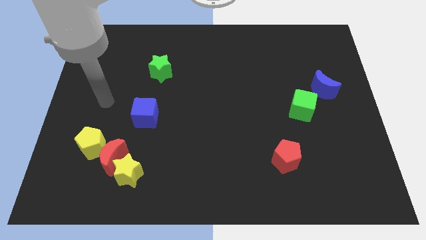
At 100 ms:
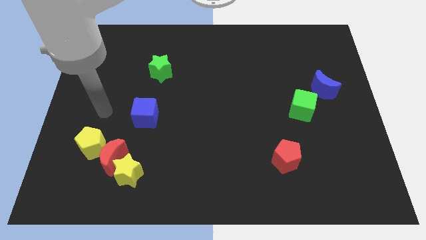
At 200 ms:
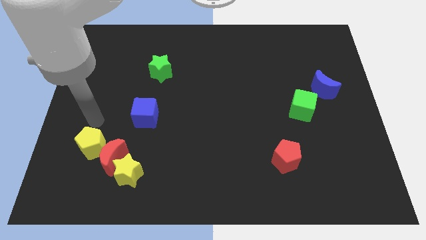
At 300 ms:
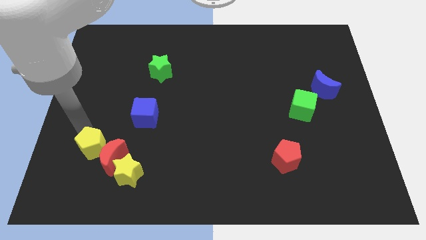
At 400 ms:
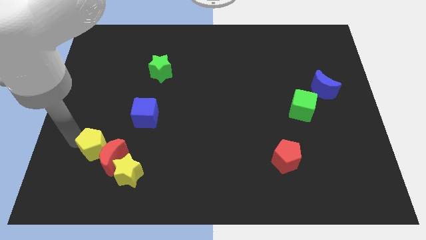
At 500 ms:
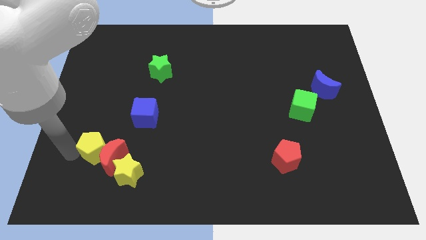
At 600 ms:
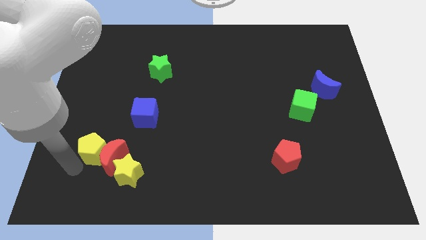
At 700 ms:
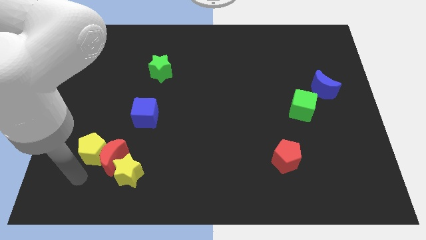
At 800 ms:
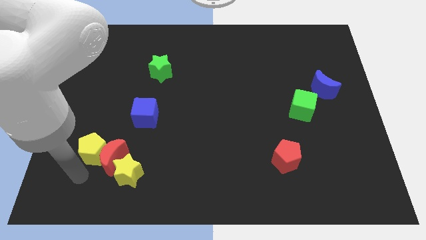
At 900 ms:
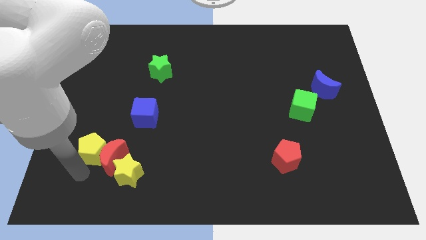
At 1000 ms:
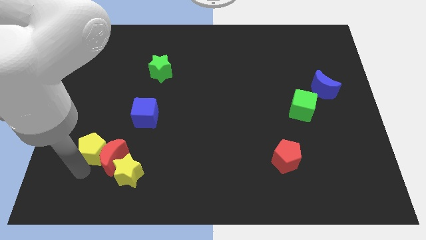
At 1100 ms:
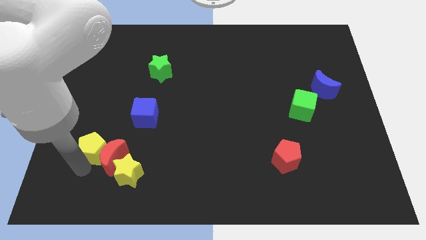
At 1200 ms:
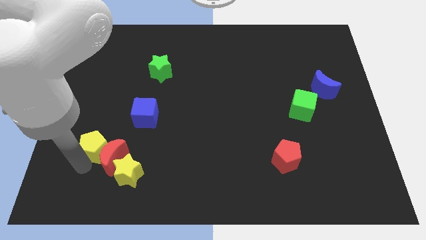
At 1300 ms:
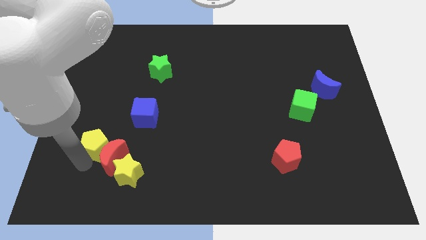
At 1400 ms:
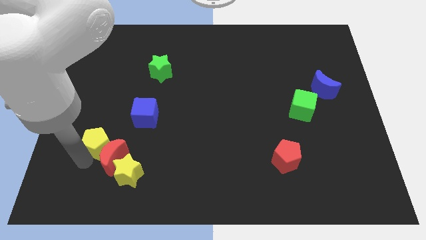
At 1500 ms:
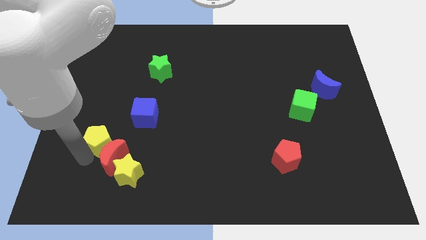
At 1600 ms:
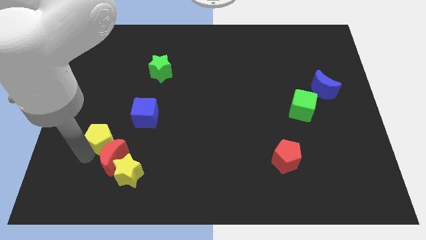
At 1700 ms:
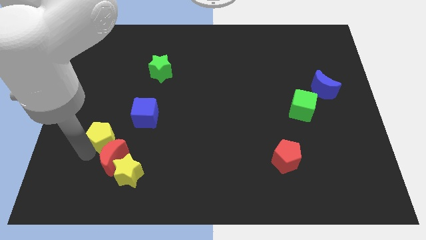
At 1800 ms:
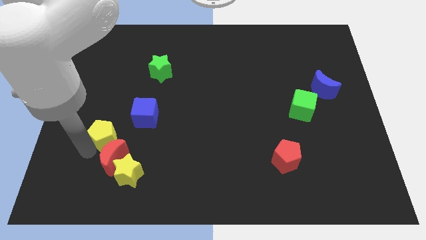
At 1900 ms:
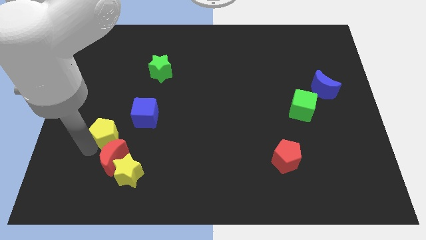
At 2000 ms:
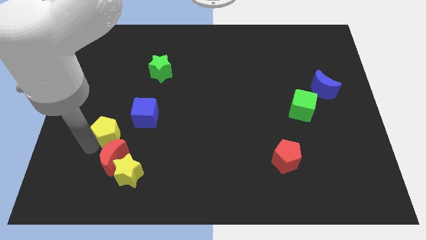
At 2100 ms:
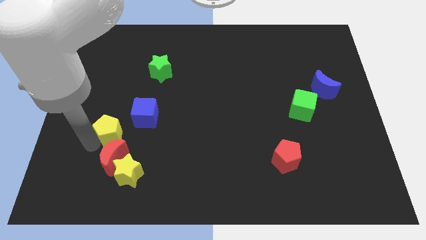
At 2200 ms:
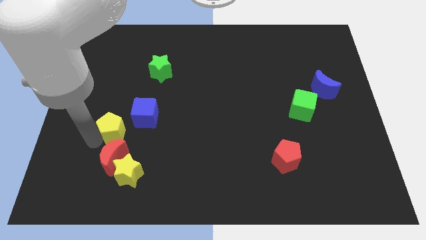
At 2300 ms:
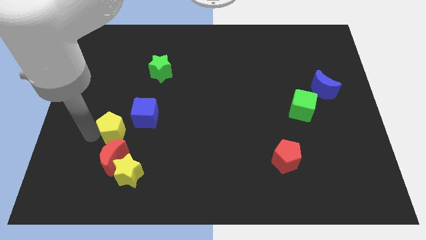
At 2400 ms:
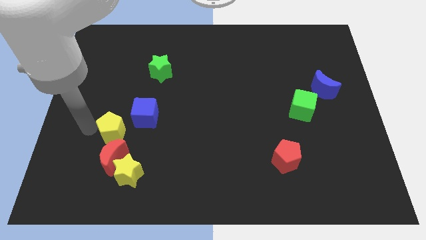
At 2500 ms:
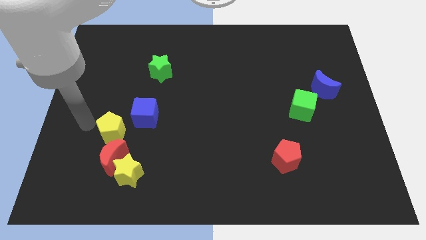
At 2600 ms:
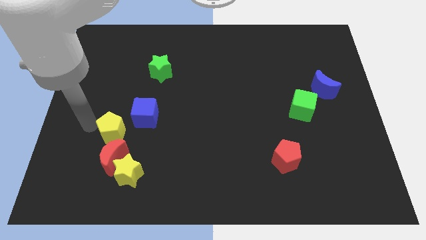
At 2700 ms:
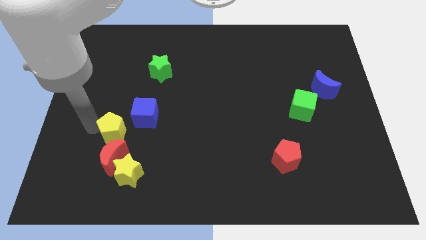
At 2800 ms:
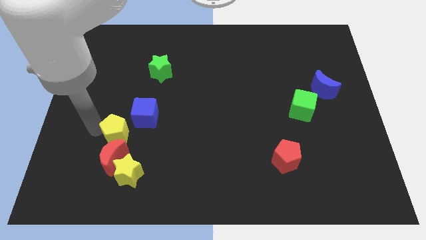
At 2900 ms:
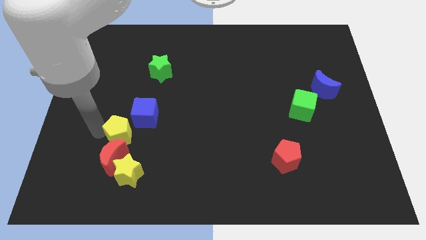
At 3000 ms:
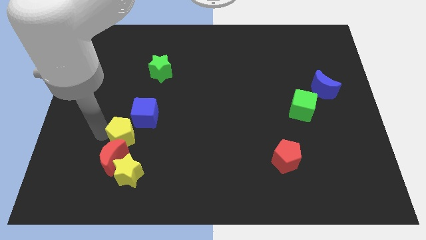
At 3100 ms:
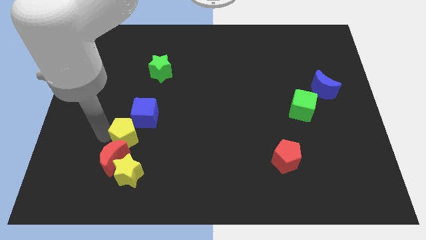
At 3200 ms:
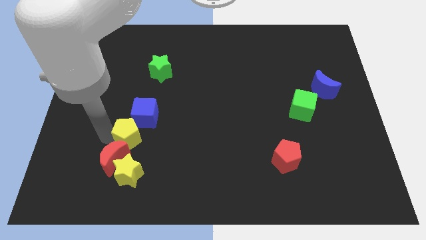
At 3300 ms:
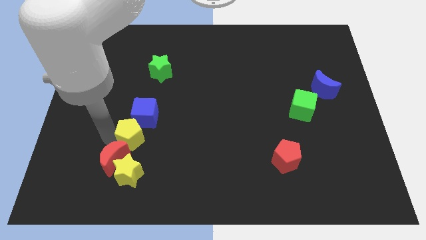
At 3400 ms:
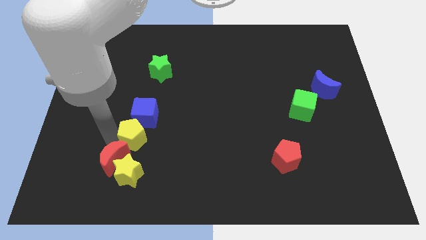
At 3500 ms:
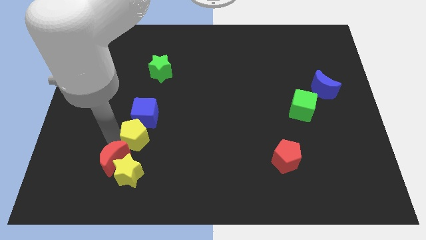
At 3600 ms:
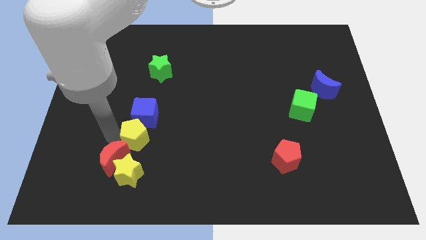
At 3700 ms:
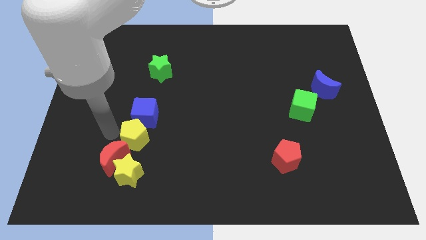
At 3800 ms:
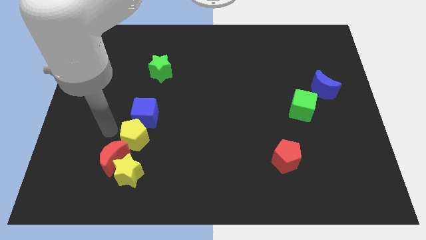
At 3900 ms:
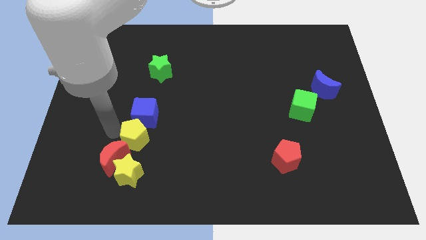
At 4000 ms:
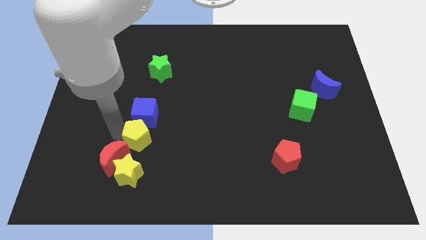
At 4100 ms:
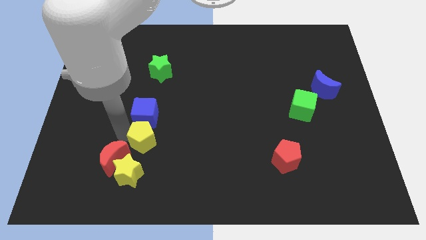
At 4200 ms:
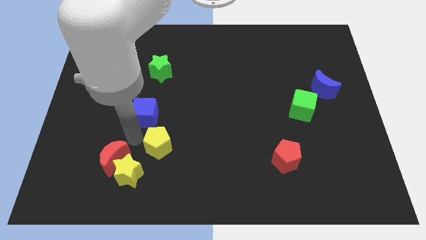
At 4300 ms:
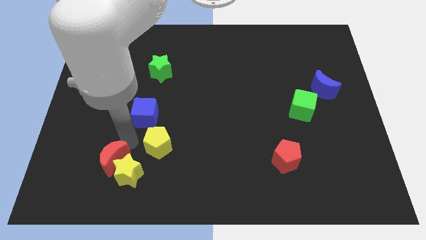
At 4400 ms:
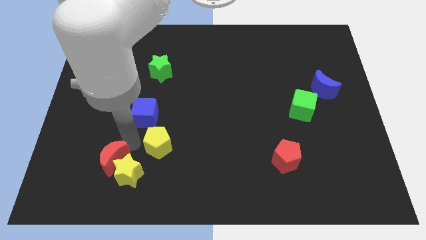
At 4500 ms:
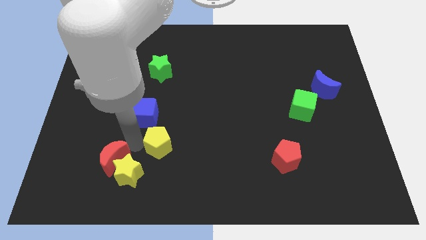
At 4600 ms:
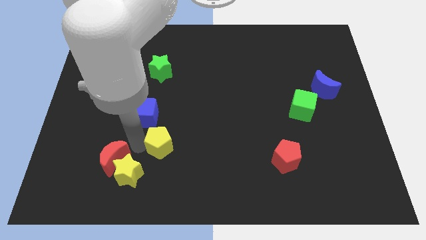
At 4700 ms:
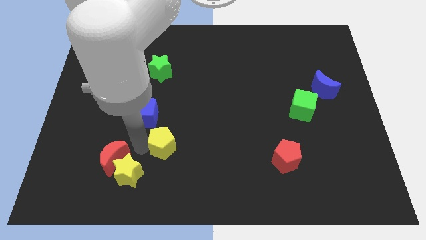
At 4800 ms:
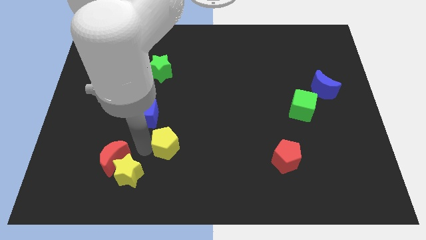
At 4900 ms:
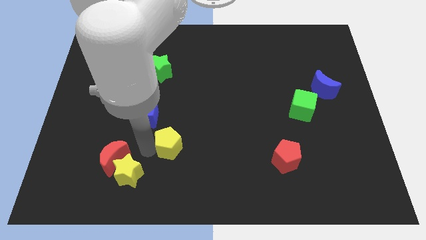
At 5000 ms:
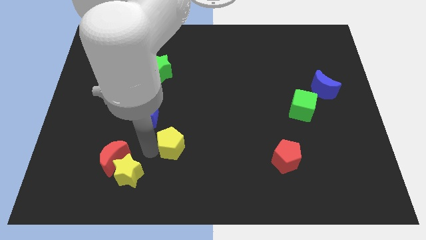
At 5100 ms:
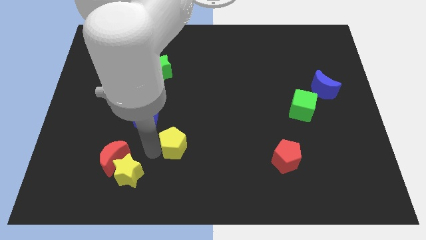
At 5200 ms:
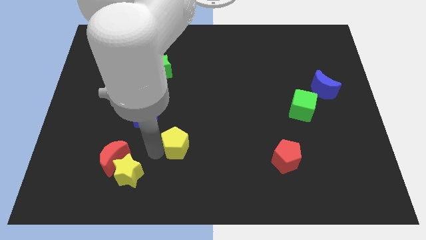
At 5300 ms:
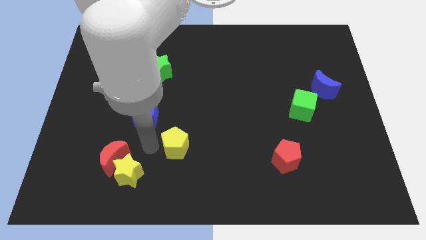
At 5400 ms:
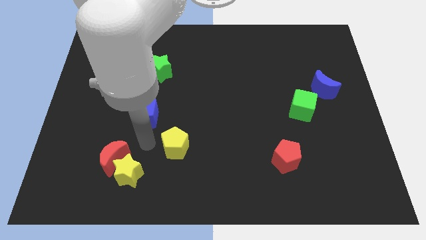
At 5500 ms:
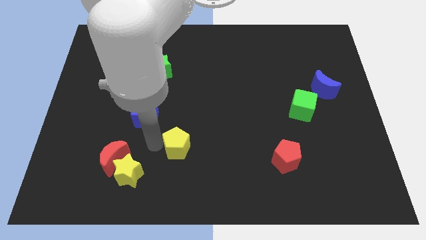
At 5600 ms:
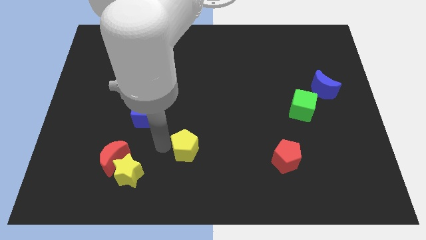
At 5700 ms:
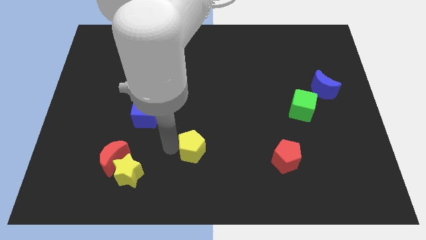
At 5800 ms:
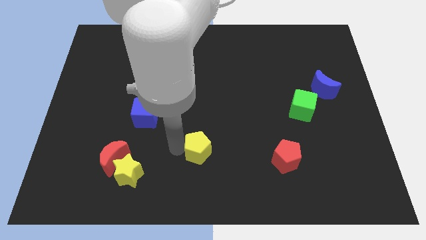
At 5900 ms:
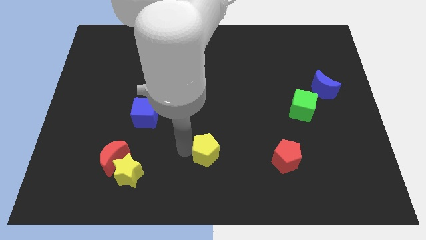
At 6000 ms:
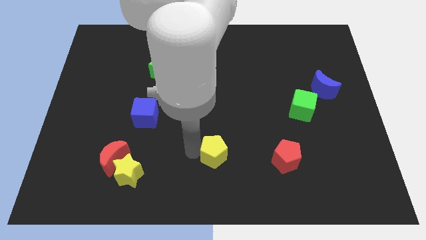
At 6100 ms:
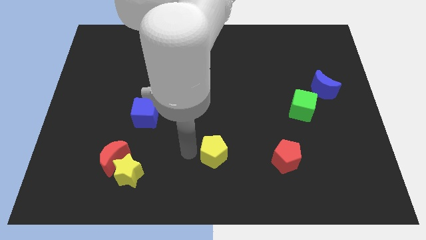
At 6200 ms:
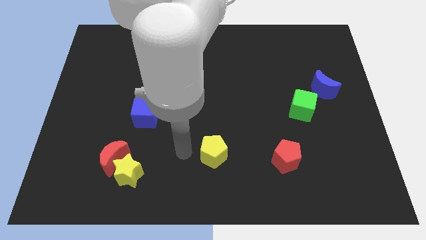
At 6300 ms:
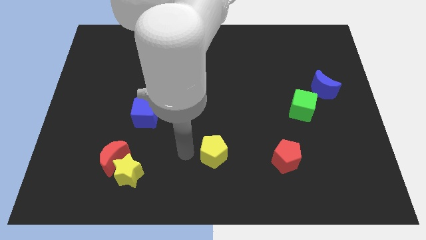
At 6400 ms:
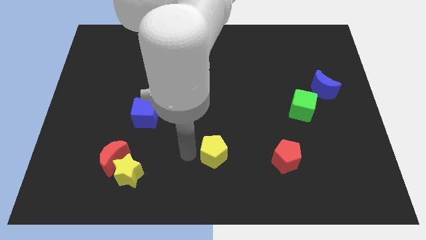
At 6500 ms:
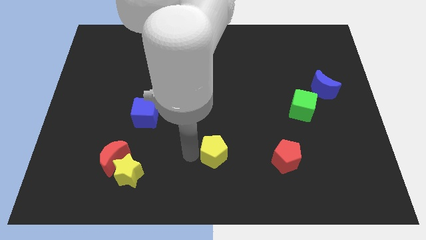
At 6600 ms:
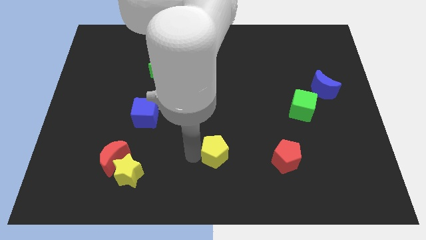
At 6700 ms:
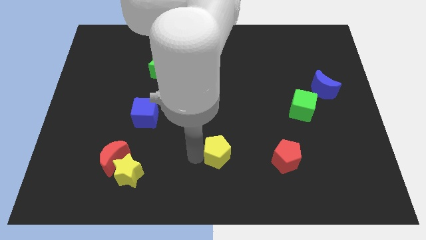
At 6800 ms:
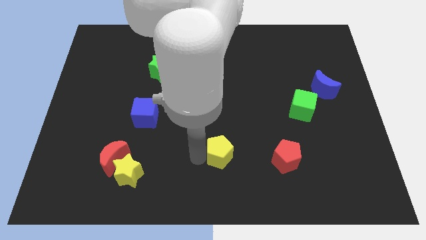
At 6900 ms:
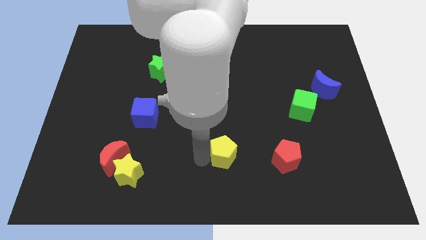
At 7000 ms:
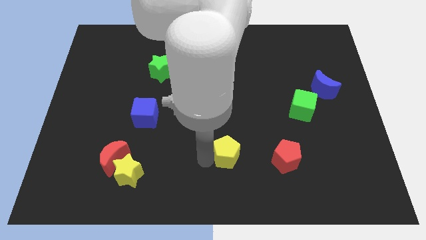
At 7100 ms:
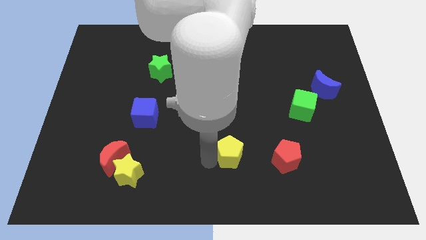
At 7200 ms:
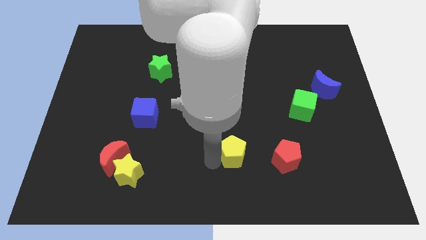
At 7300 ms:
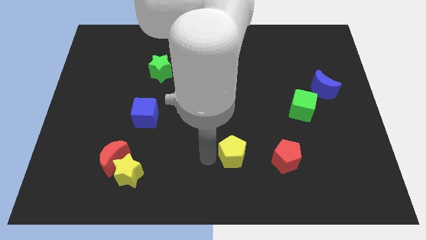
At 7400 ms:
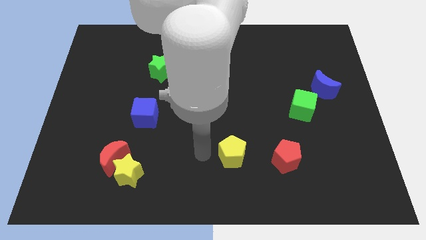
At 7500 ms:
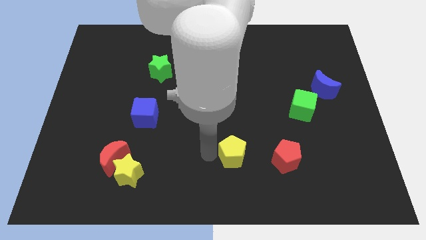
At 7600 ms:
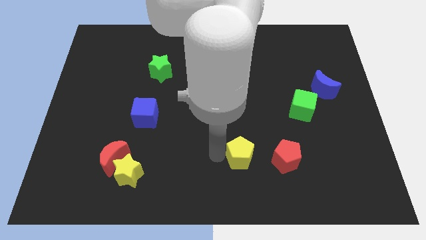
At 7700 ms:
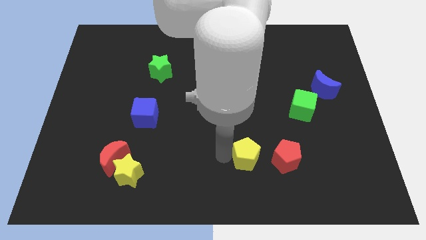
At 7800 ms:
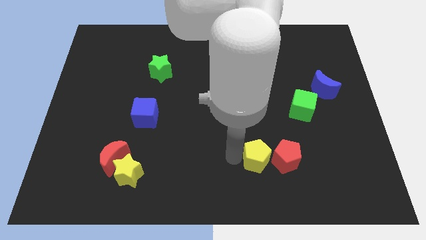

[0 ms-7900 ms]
slide the yellow pentagon to the red pentagon
